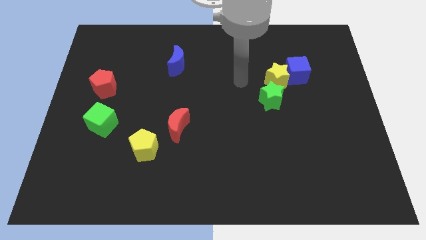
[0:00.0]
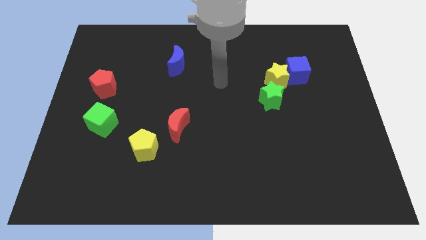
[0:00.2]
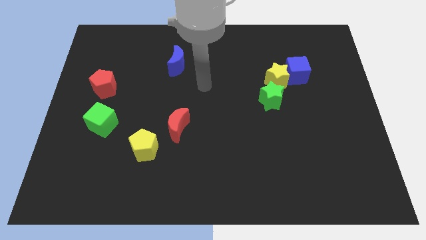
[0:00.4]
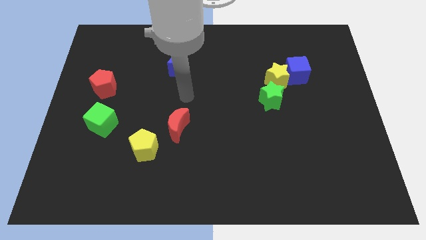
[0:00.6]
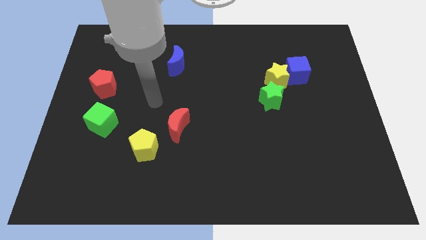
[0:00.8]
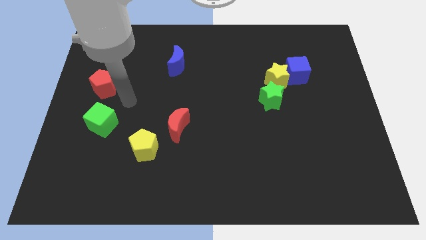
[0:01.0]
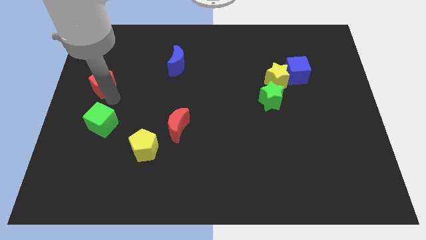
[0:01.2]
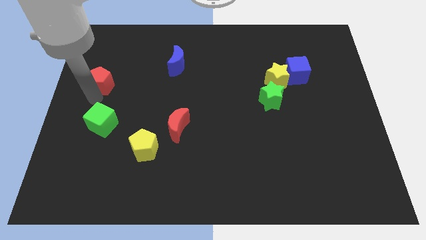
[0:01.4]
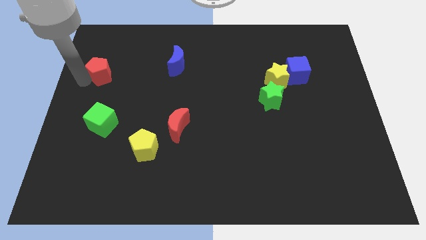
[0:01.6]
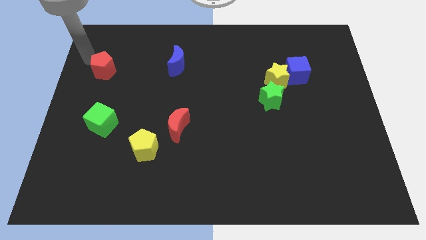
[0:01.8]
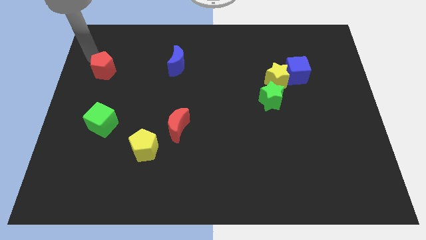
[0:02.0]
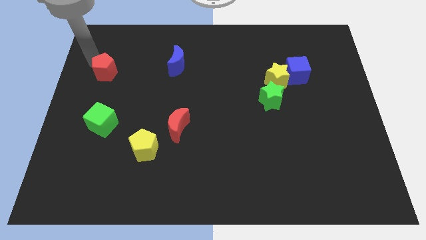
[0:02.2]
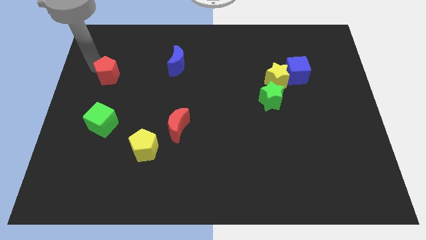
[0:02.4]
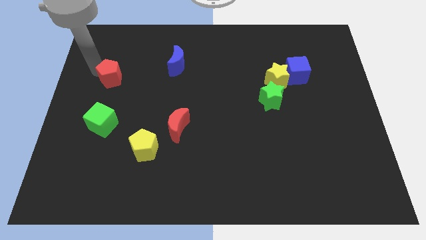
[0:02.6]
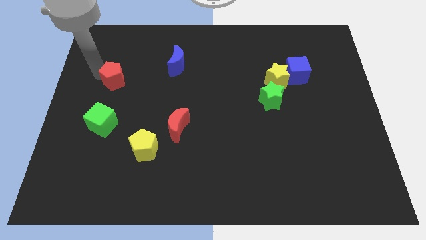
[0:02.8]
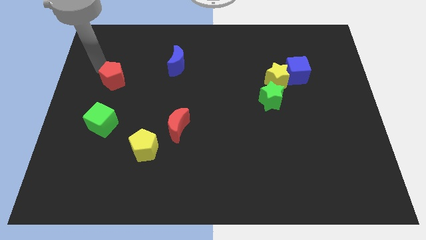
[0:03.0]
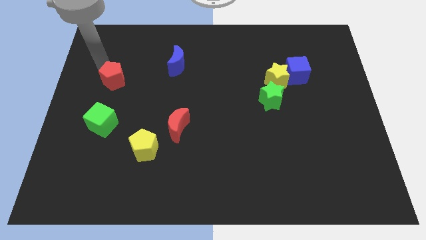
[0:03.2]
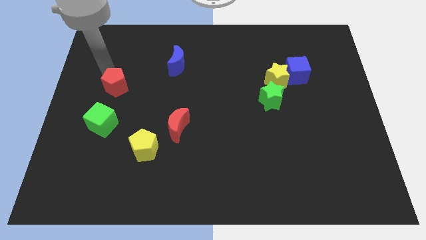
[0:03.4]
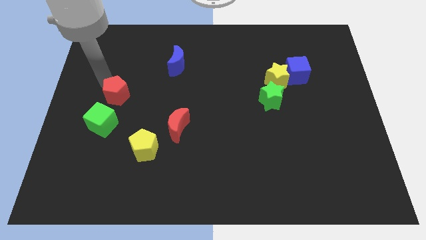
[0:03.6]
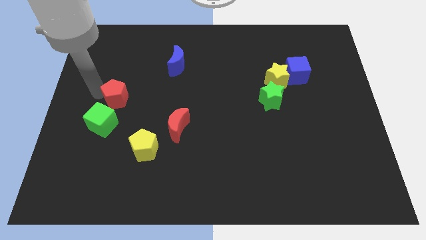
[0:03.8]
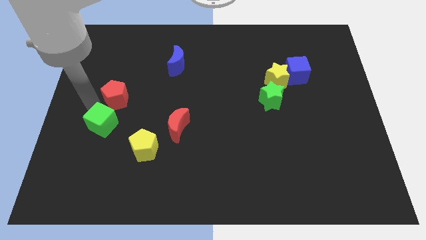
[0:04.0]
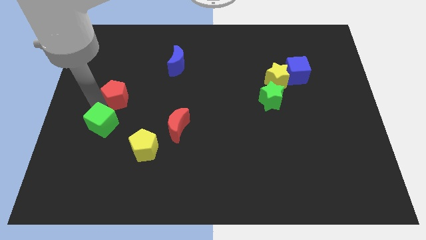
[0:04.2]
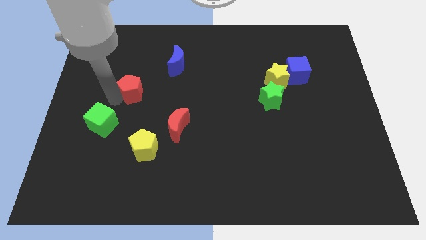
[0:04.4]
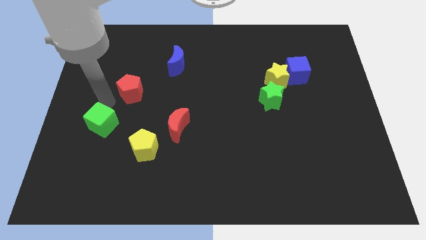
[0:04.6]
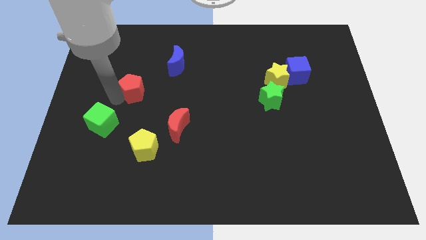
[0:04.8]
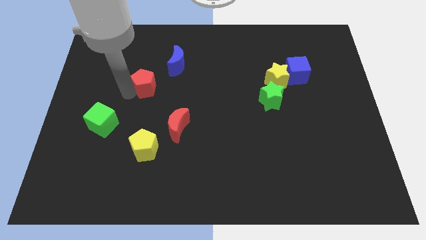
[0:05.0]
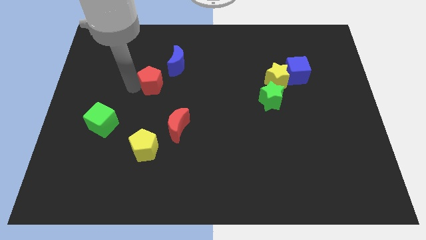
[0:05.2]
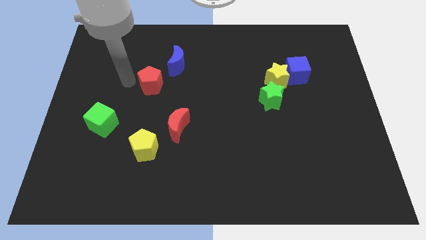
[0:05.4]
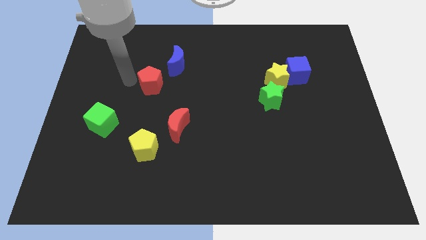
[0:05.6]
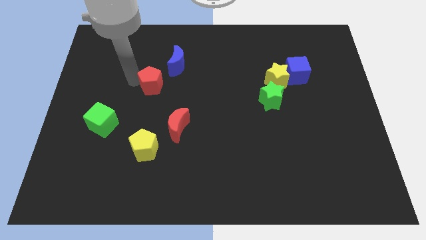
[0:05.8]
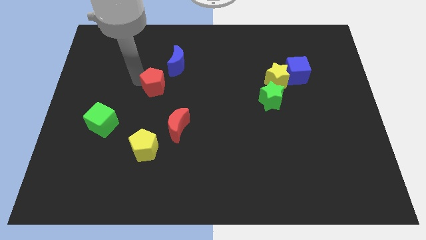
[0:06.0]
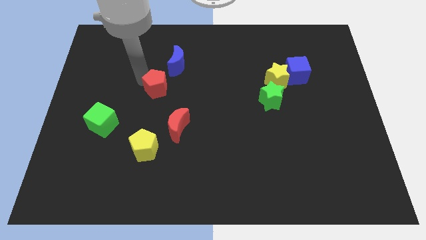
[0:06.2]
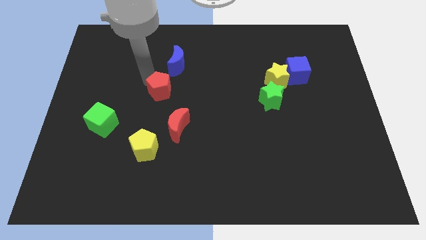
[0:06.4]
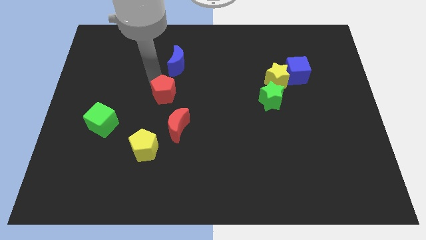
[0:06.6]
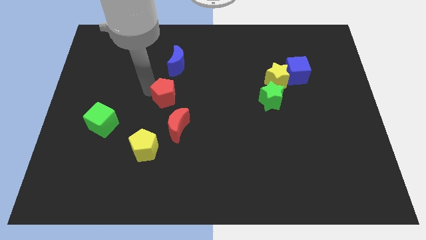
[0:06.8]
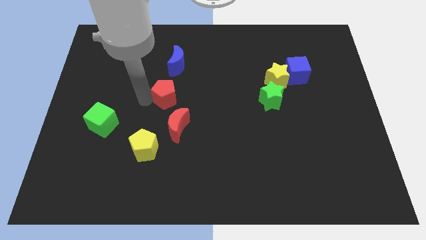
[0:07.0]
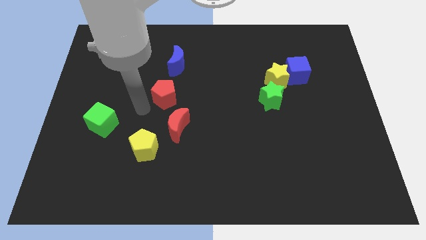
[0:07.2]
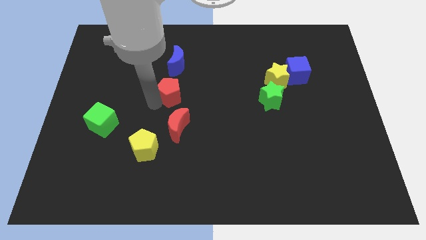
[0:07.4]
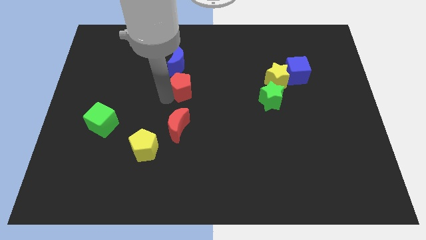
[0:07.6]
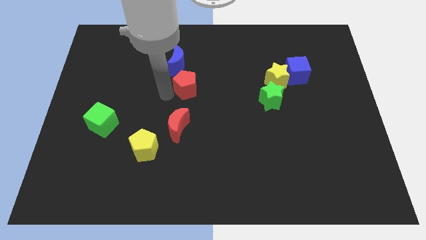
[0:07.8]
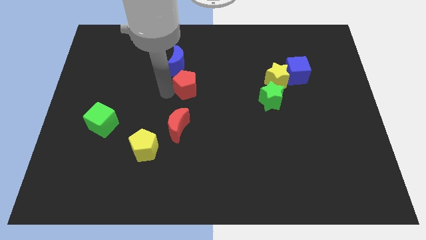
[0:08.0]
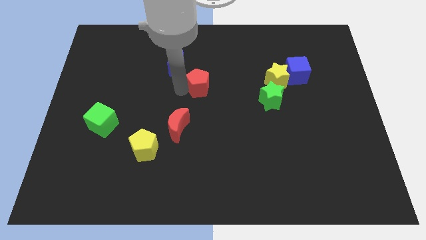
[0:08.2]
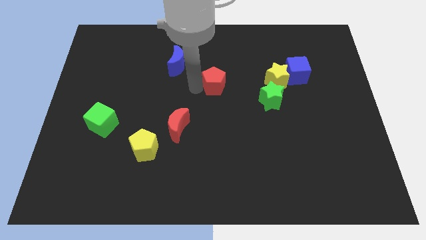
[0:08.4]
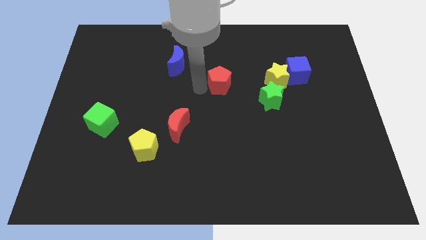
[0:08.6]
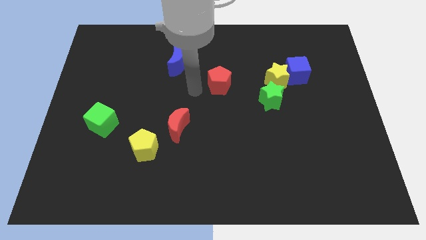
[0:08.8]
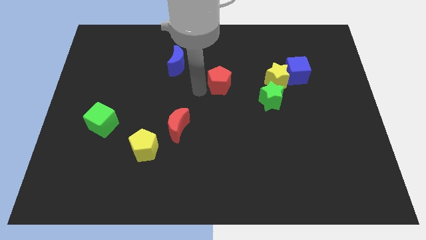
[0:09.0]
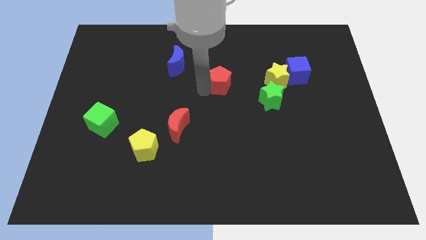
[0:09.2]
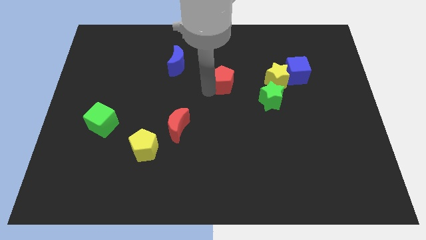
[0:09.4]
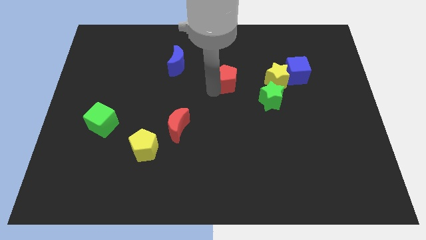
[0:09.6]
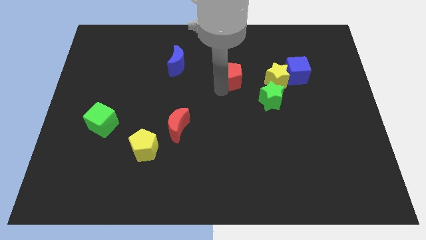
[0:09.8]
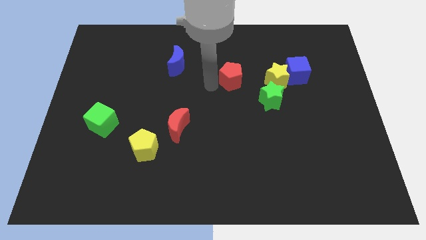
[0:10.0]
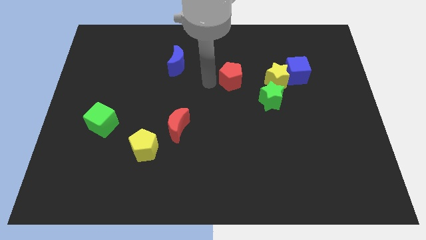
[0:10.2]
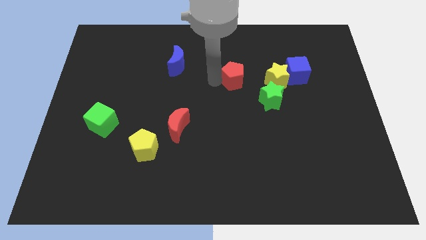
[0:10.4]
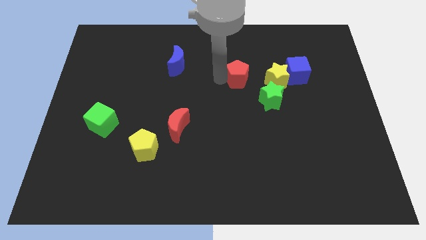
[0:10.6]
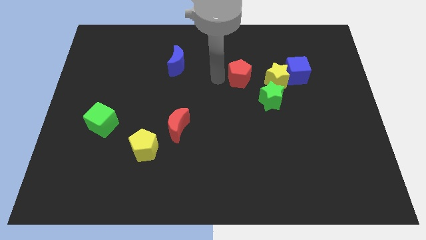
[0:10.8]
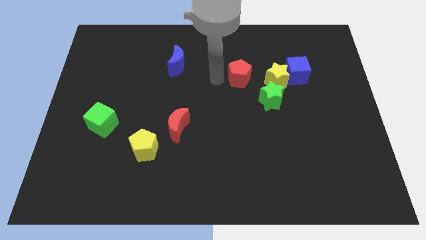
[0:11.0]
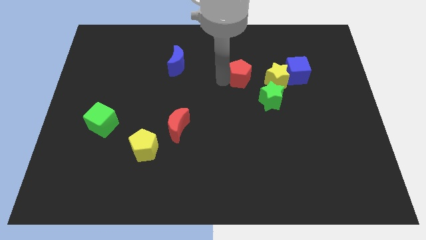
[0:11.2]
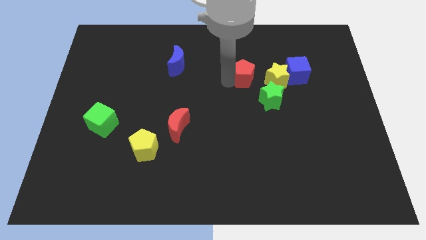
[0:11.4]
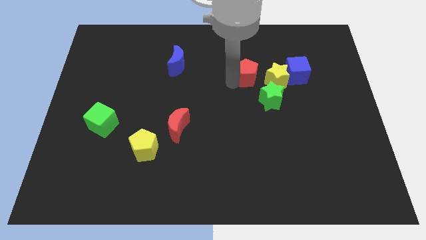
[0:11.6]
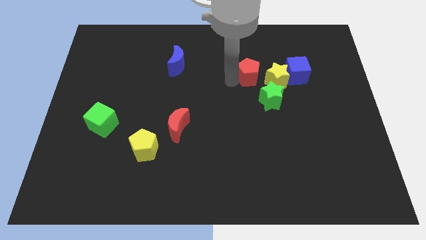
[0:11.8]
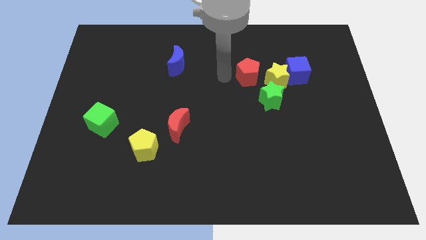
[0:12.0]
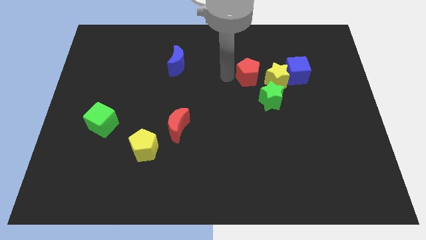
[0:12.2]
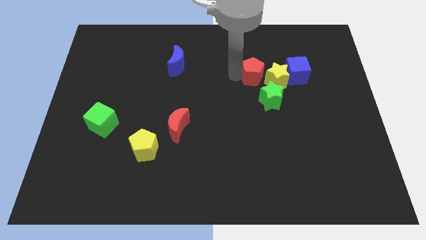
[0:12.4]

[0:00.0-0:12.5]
put the red pentagon next to the yellow star
